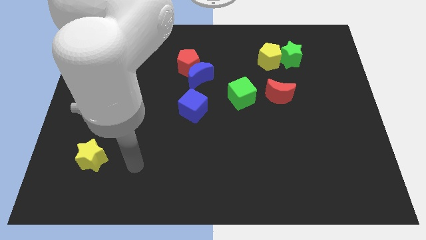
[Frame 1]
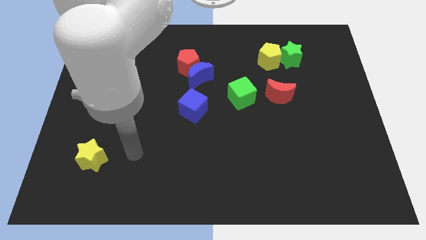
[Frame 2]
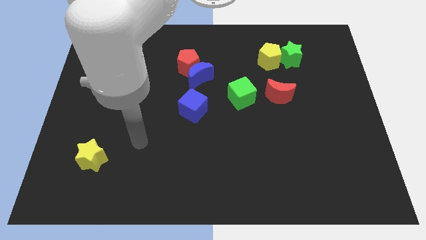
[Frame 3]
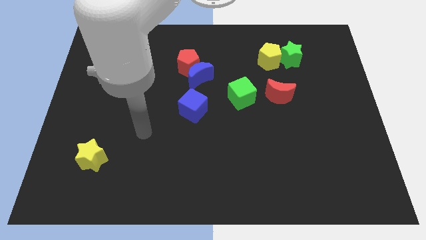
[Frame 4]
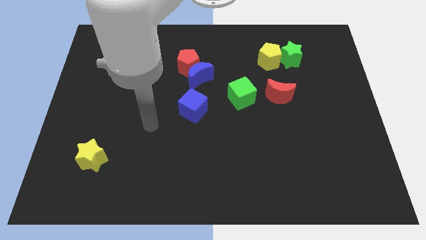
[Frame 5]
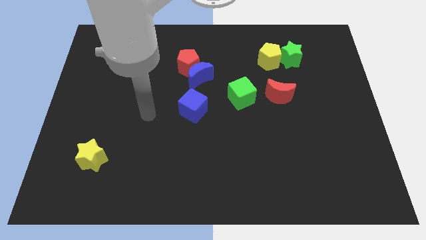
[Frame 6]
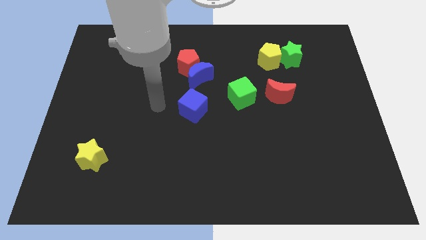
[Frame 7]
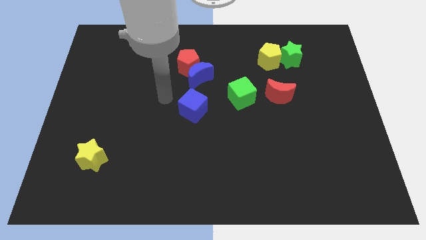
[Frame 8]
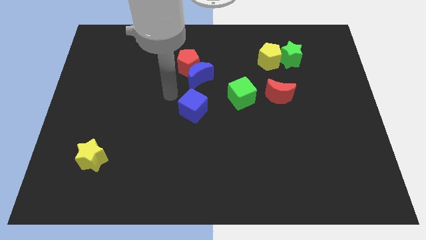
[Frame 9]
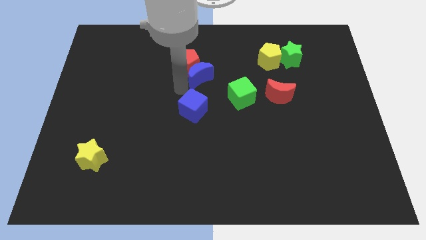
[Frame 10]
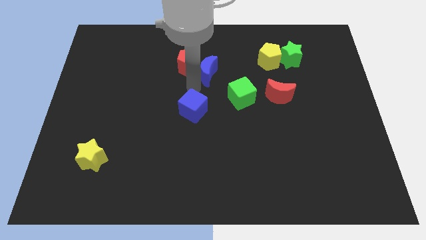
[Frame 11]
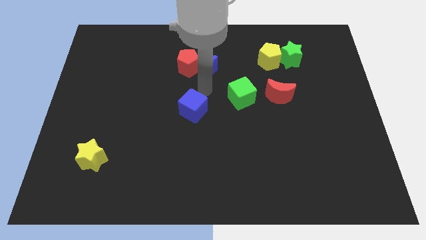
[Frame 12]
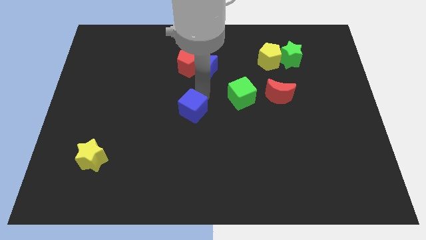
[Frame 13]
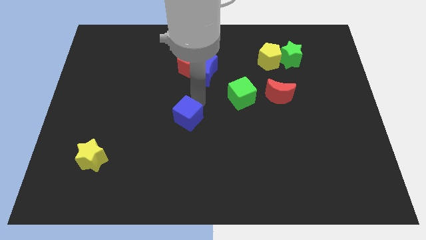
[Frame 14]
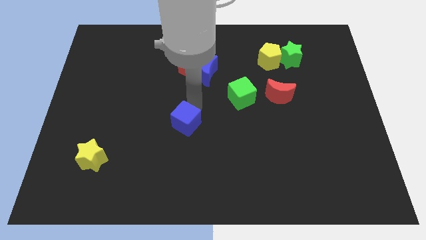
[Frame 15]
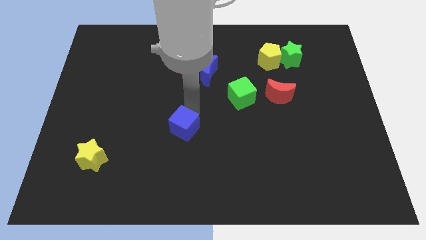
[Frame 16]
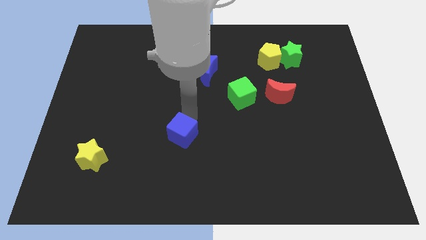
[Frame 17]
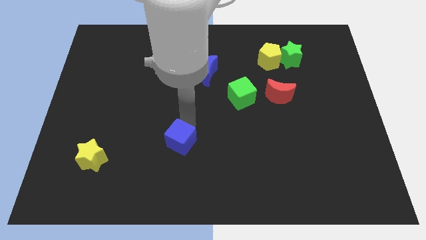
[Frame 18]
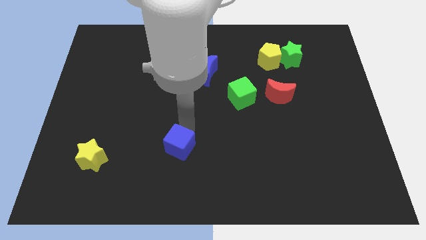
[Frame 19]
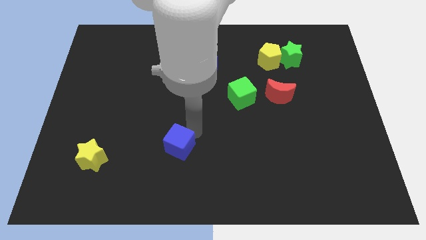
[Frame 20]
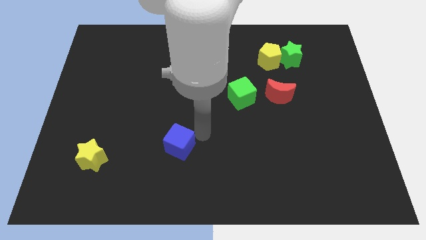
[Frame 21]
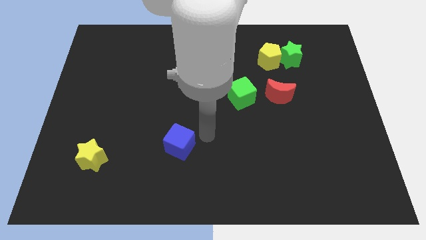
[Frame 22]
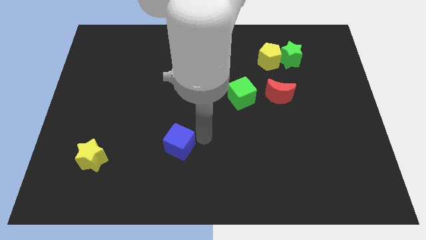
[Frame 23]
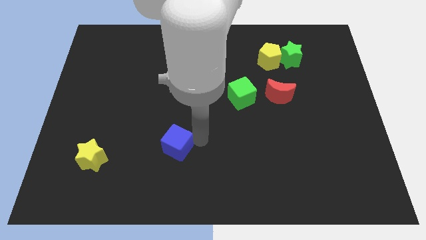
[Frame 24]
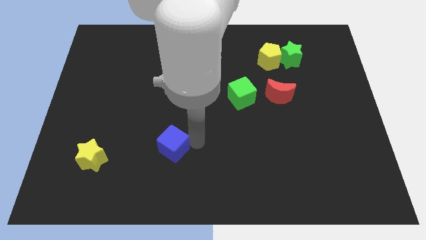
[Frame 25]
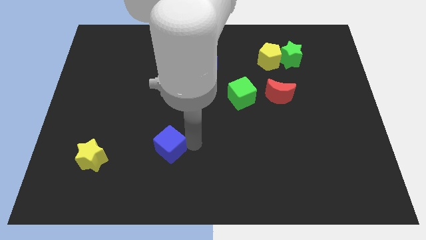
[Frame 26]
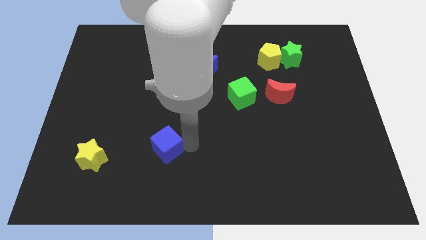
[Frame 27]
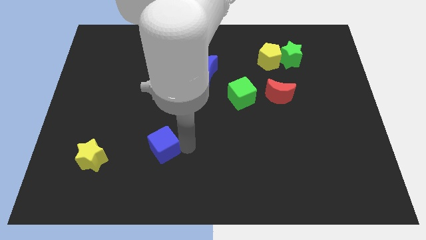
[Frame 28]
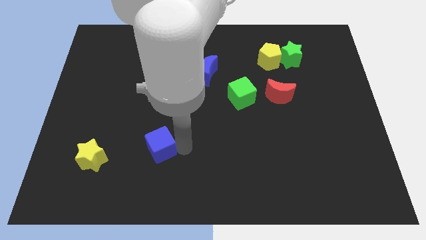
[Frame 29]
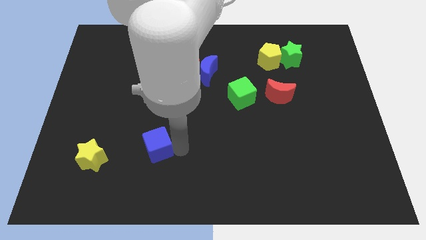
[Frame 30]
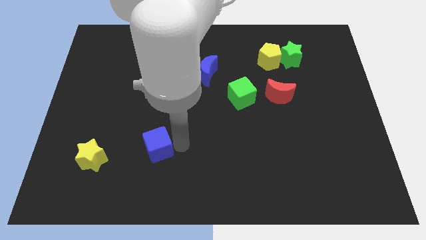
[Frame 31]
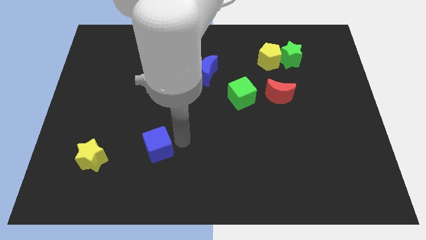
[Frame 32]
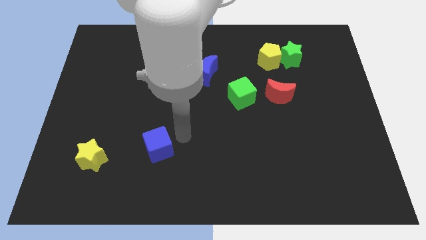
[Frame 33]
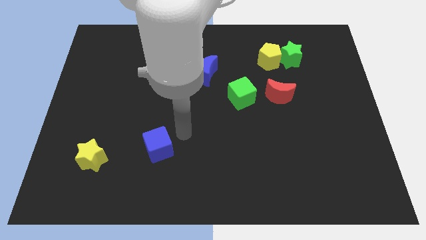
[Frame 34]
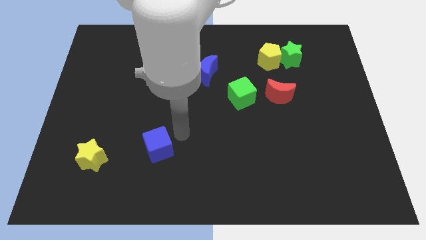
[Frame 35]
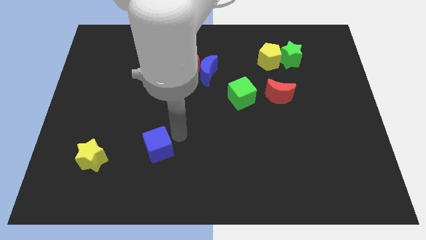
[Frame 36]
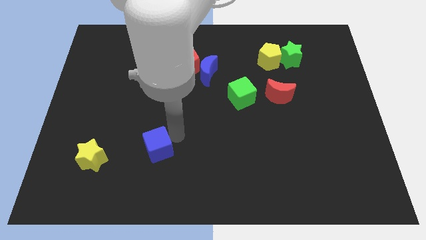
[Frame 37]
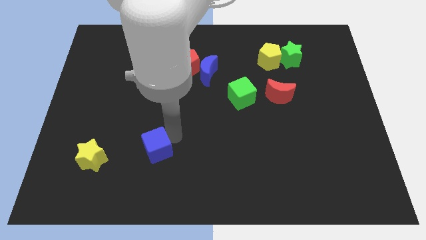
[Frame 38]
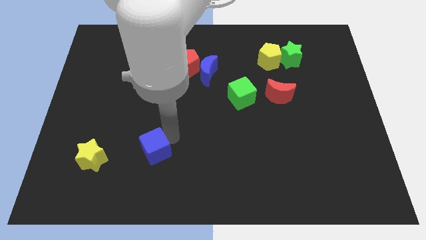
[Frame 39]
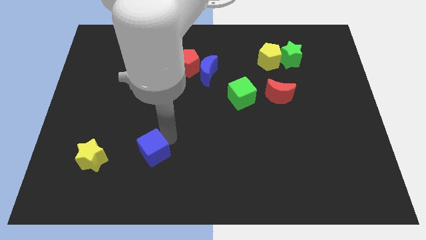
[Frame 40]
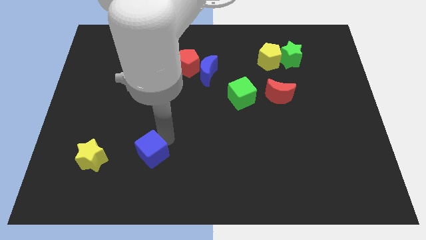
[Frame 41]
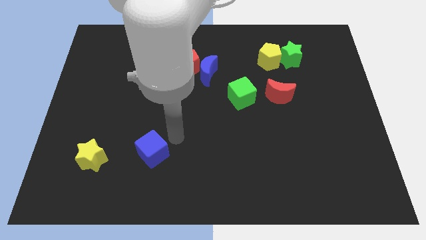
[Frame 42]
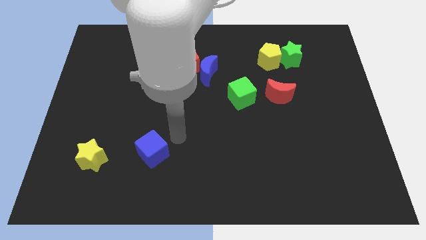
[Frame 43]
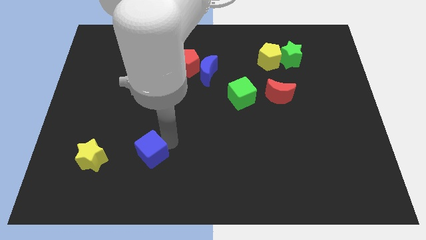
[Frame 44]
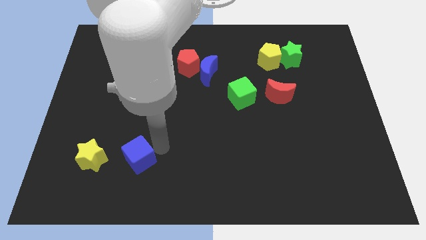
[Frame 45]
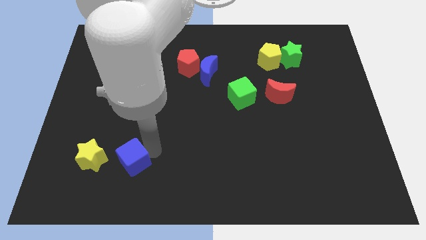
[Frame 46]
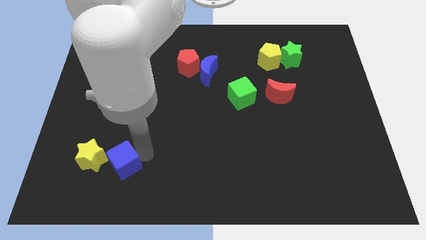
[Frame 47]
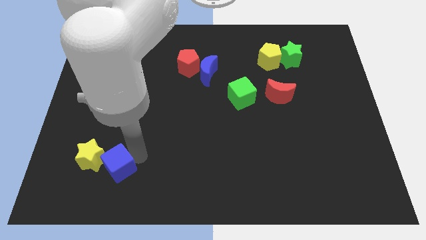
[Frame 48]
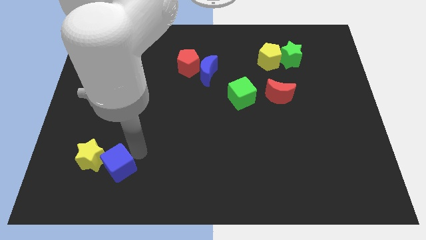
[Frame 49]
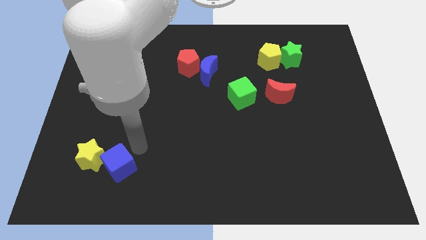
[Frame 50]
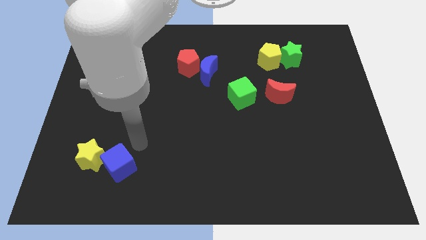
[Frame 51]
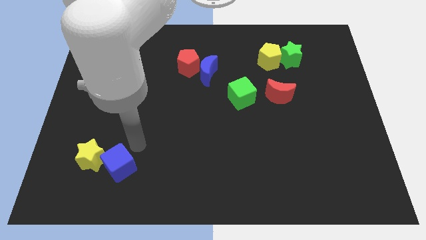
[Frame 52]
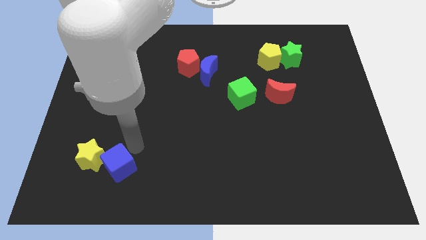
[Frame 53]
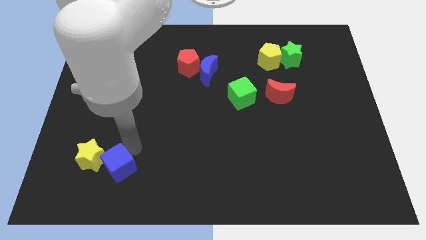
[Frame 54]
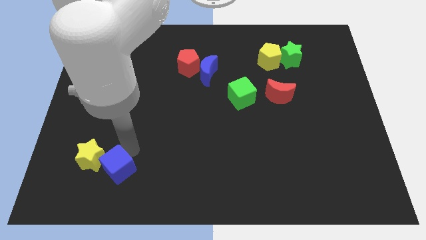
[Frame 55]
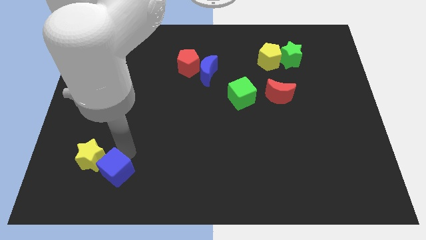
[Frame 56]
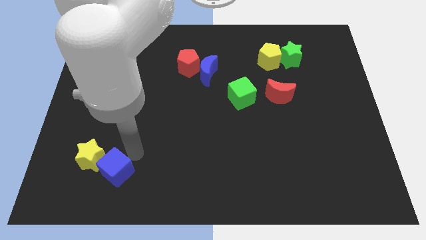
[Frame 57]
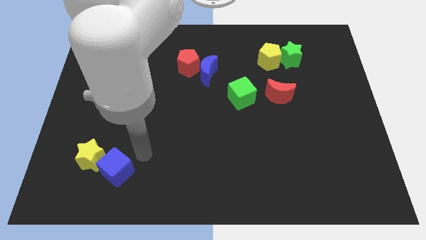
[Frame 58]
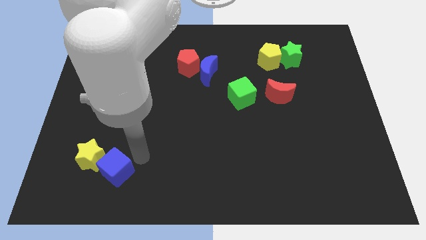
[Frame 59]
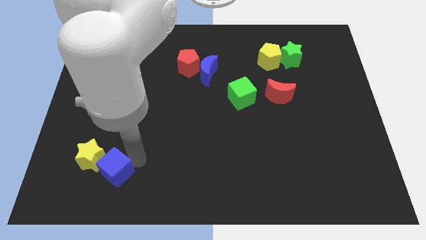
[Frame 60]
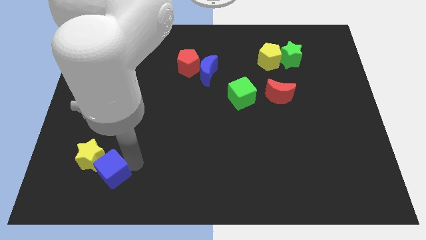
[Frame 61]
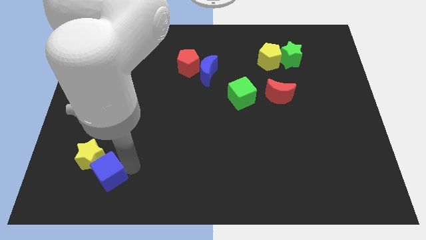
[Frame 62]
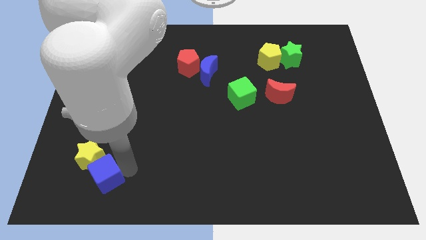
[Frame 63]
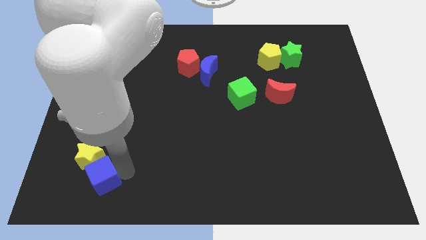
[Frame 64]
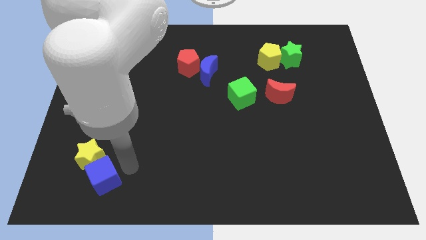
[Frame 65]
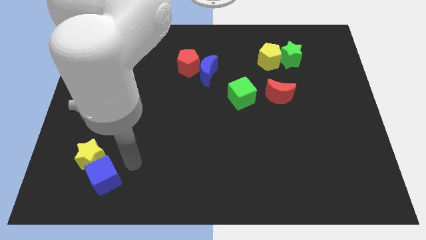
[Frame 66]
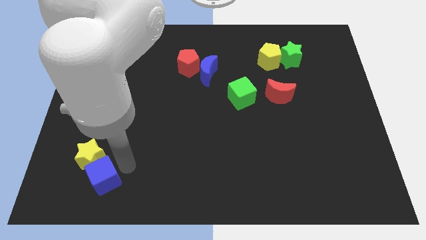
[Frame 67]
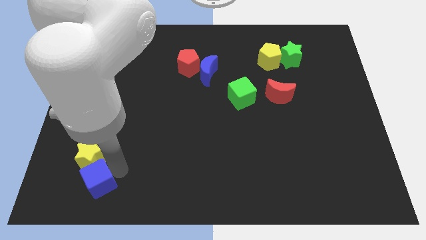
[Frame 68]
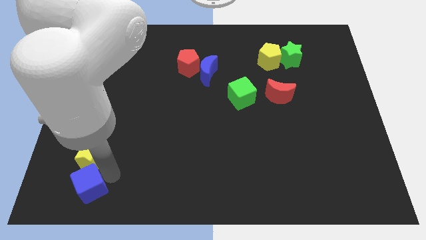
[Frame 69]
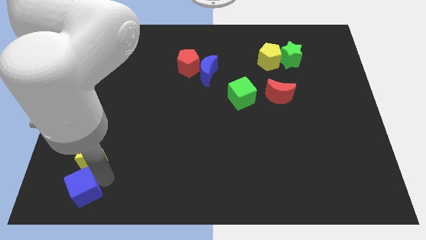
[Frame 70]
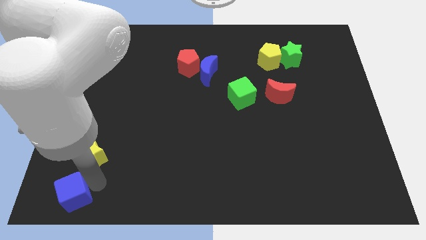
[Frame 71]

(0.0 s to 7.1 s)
push the blue cube to the bottom left corner
